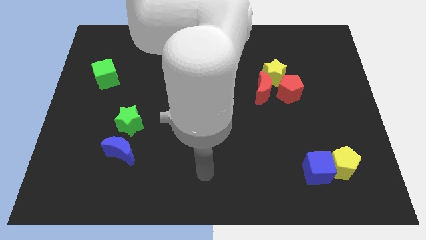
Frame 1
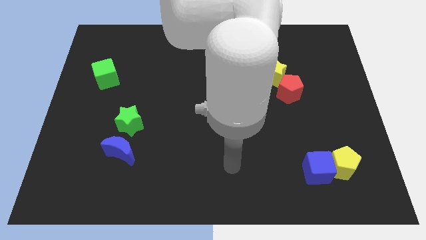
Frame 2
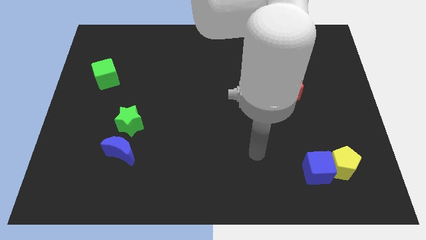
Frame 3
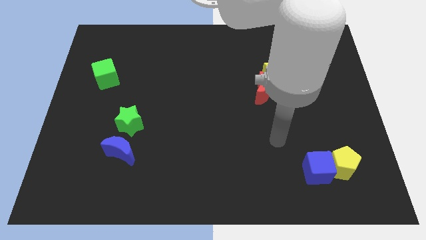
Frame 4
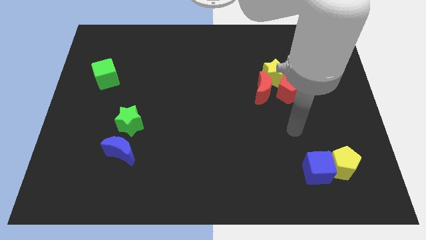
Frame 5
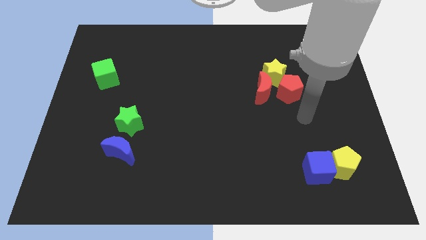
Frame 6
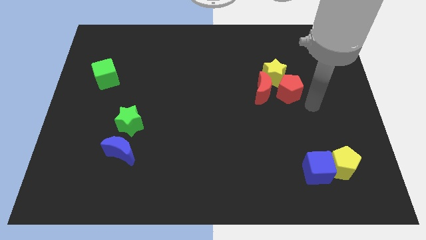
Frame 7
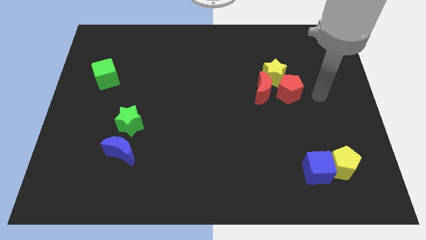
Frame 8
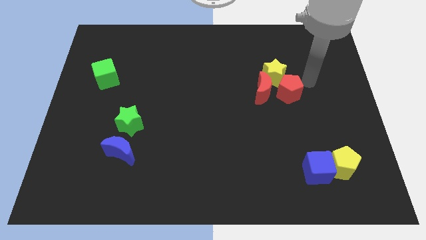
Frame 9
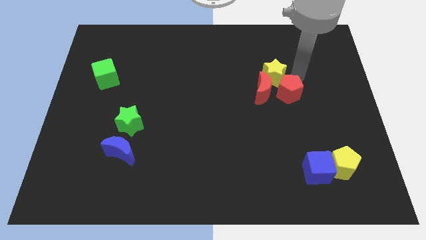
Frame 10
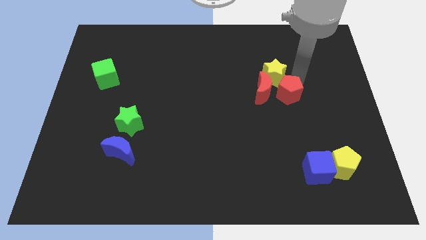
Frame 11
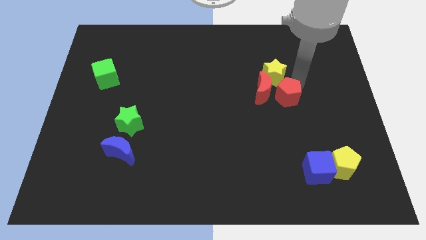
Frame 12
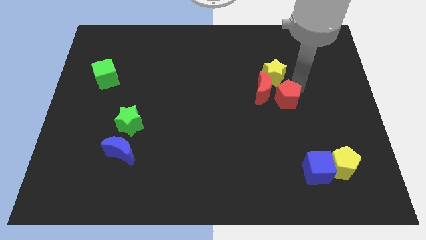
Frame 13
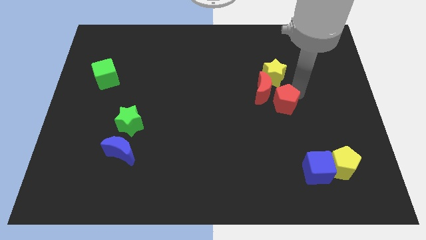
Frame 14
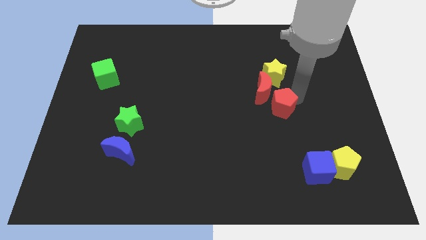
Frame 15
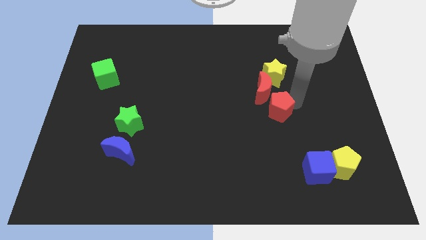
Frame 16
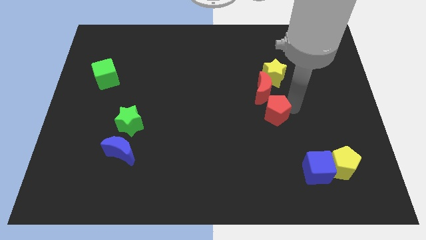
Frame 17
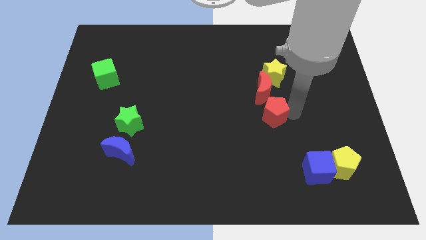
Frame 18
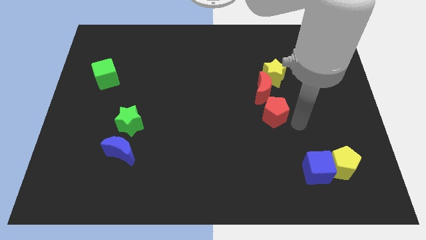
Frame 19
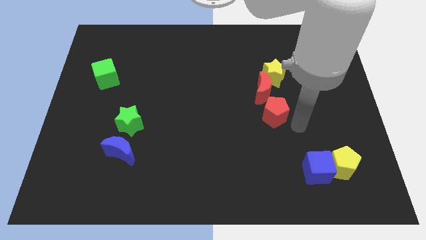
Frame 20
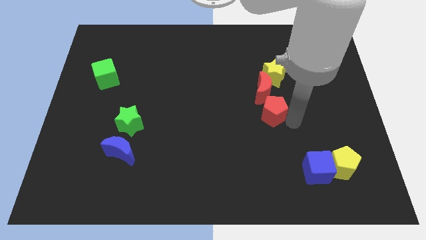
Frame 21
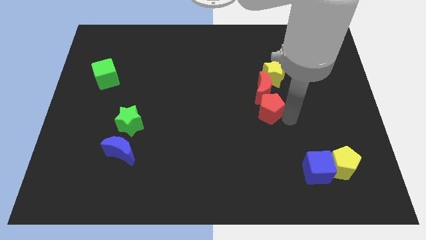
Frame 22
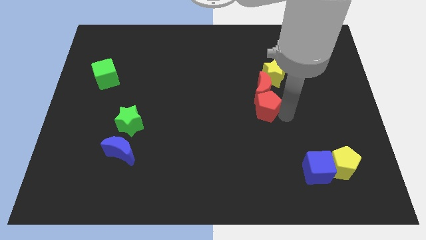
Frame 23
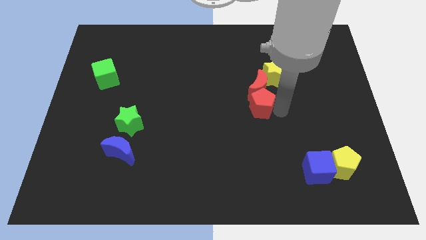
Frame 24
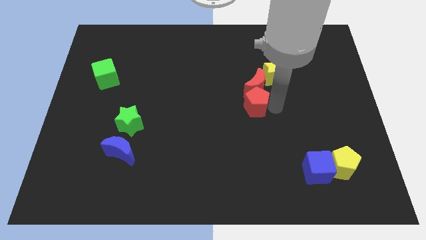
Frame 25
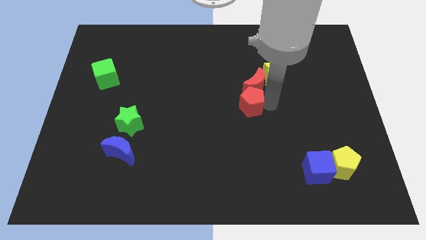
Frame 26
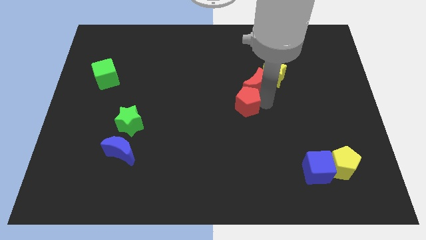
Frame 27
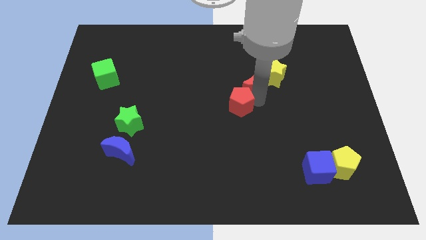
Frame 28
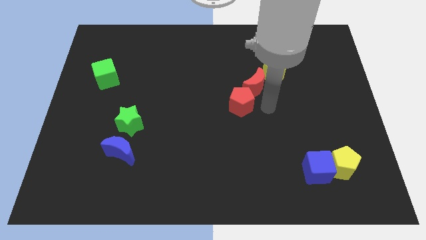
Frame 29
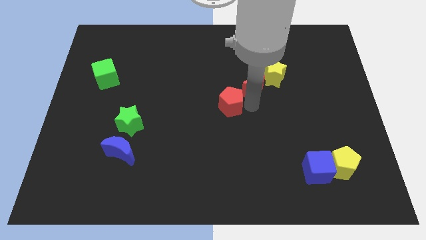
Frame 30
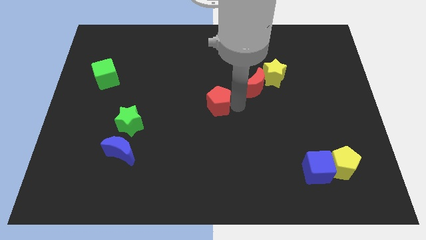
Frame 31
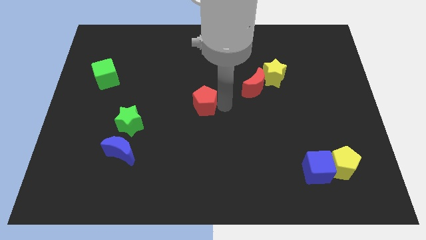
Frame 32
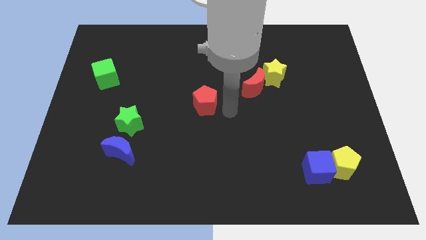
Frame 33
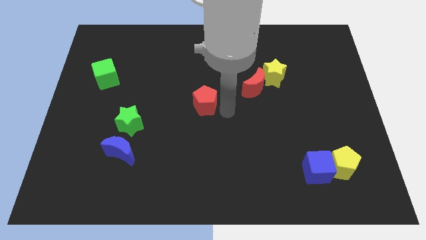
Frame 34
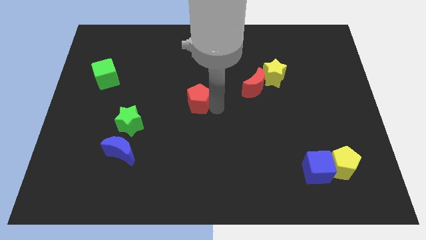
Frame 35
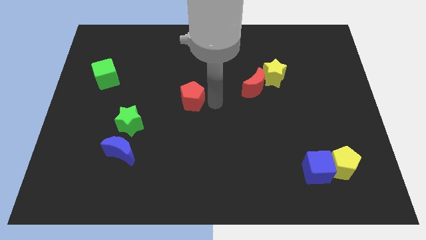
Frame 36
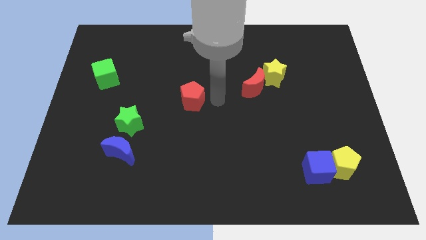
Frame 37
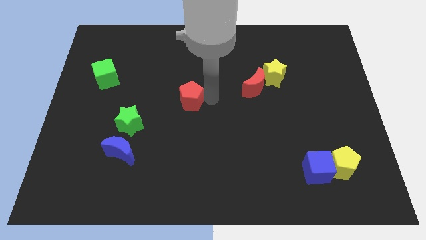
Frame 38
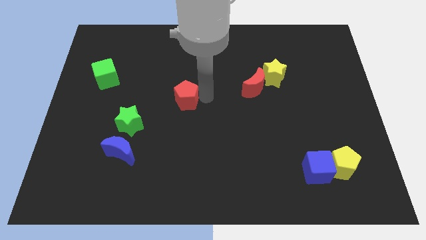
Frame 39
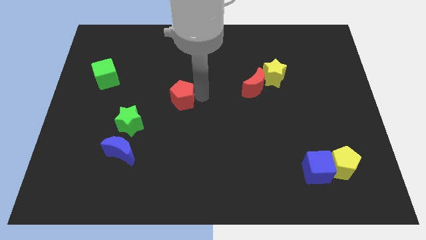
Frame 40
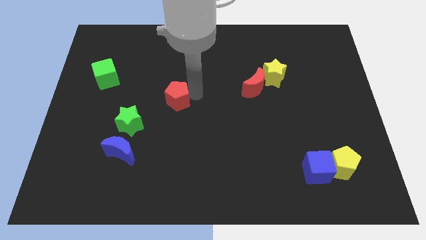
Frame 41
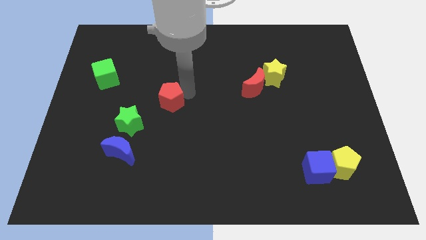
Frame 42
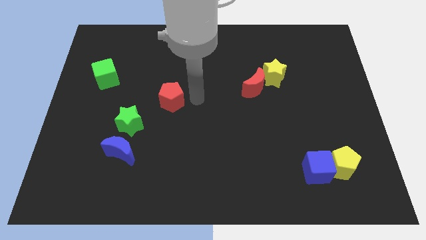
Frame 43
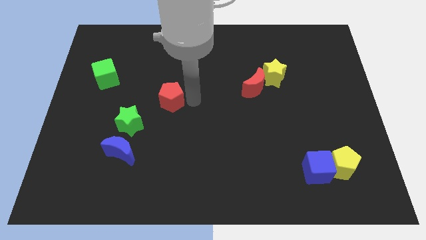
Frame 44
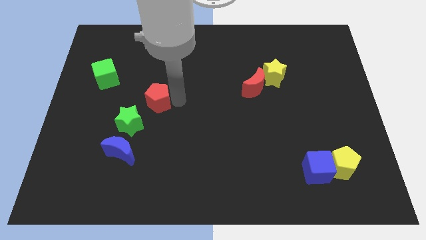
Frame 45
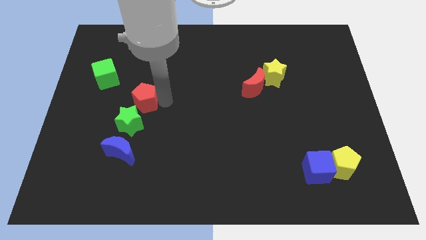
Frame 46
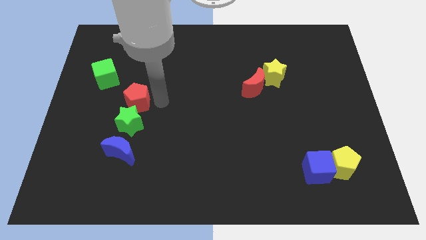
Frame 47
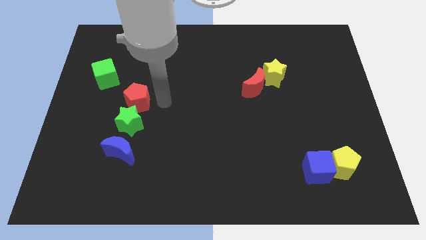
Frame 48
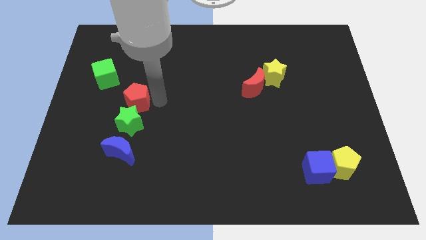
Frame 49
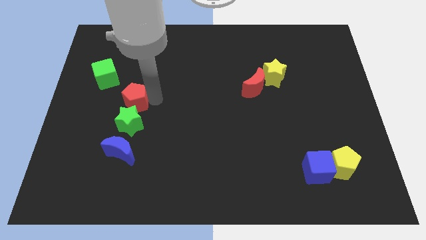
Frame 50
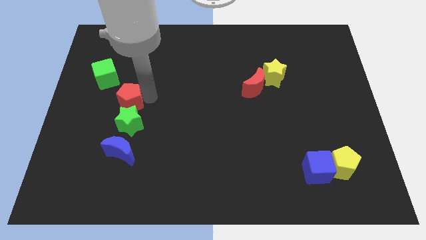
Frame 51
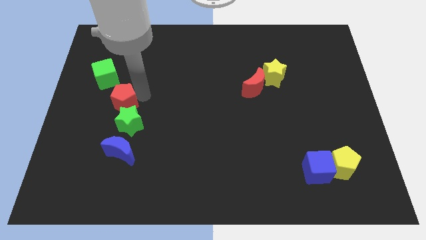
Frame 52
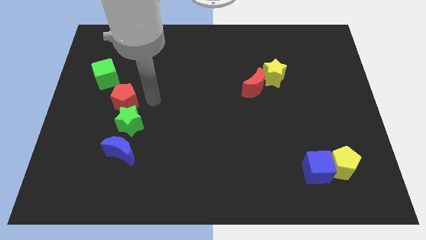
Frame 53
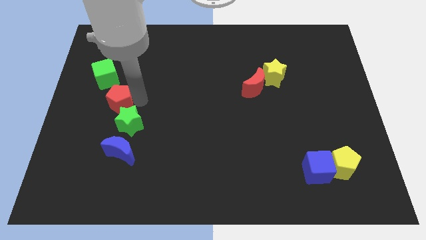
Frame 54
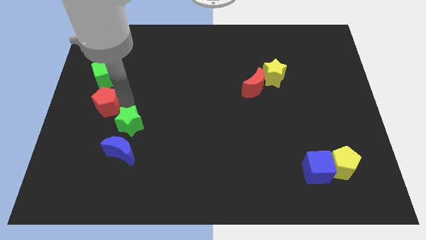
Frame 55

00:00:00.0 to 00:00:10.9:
move the red pentagon to the left side of the board

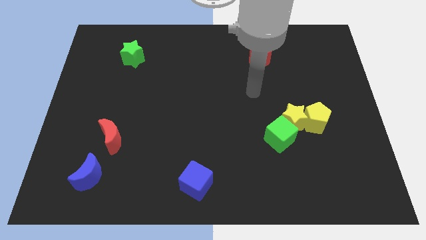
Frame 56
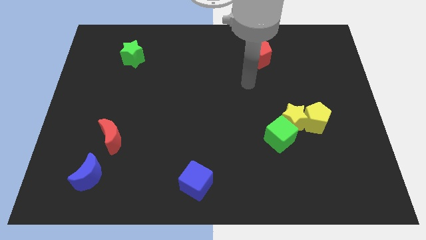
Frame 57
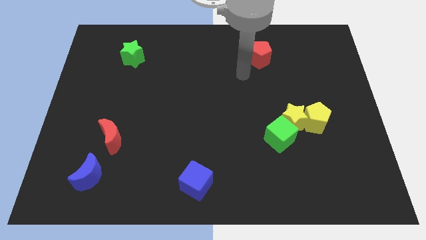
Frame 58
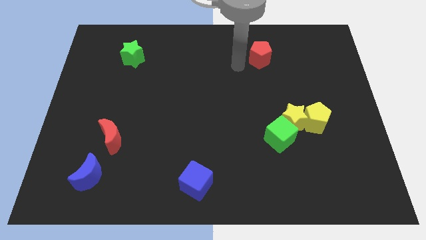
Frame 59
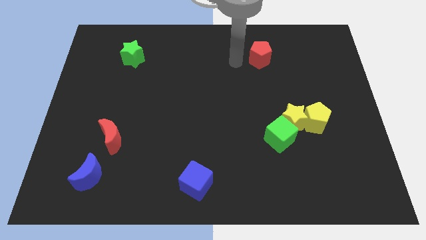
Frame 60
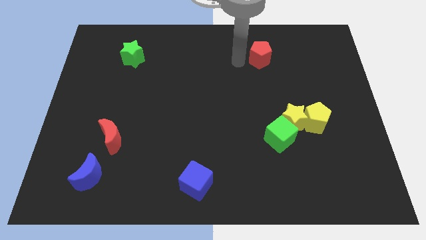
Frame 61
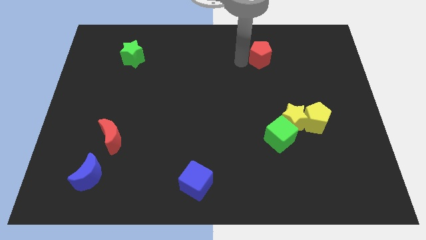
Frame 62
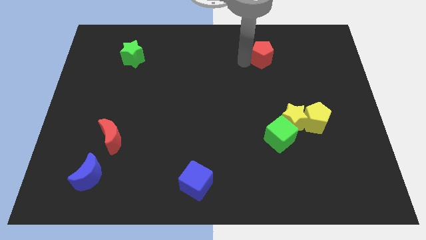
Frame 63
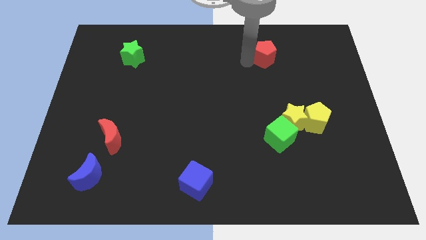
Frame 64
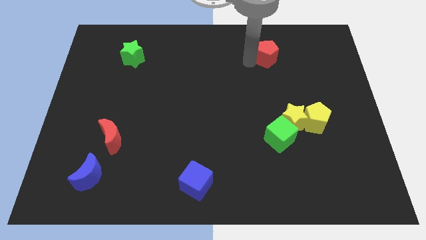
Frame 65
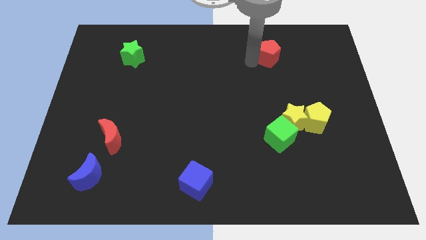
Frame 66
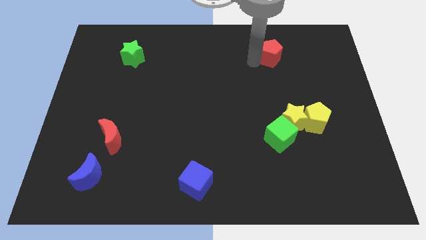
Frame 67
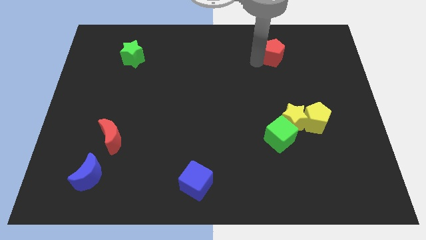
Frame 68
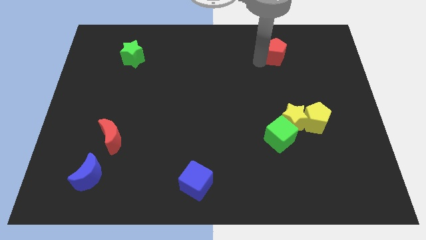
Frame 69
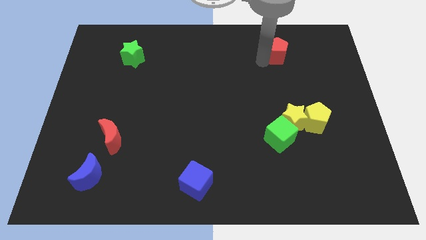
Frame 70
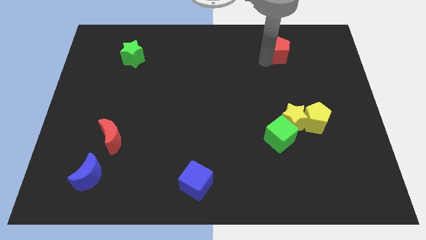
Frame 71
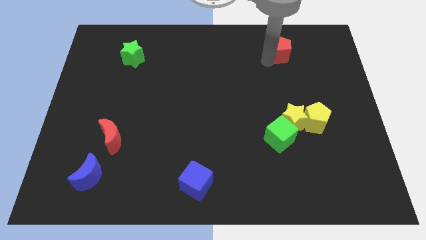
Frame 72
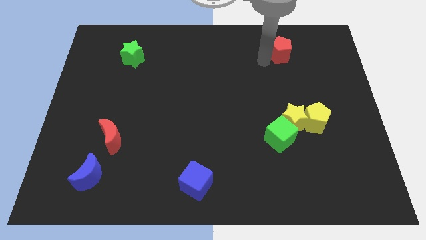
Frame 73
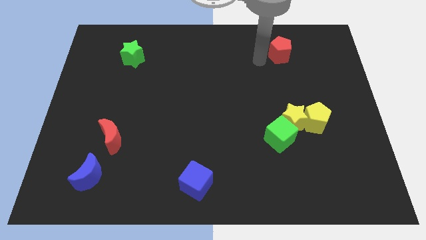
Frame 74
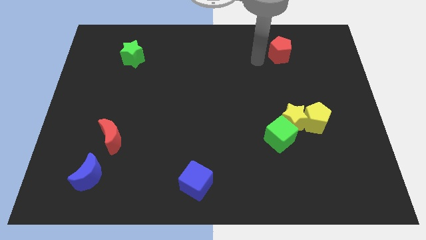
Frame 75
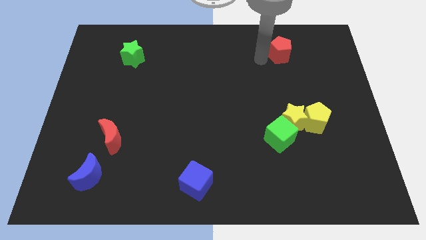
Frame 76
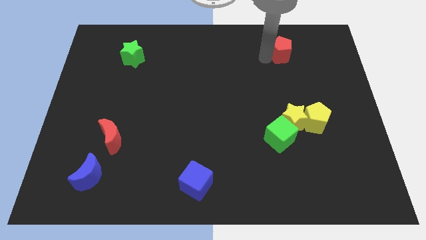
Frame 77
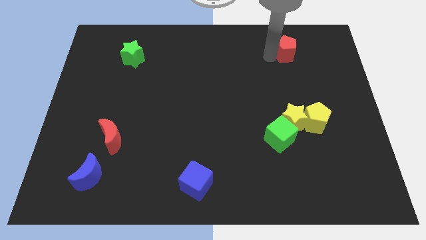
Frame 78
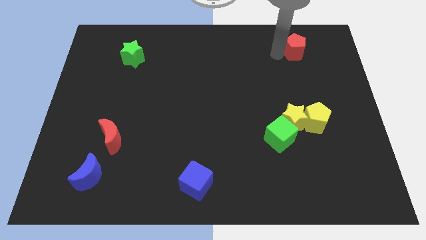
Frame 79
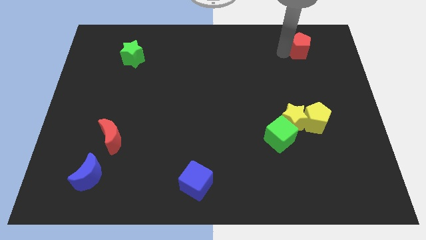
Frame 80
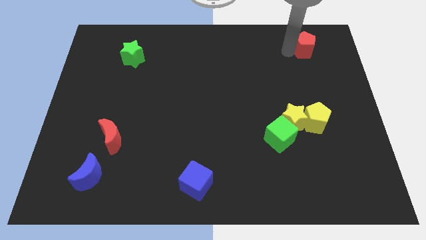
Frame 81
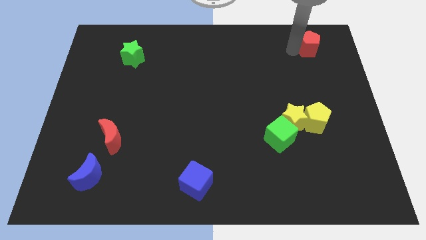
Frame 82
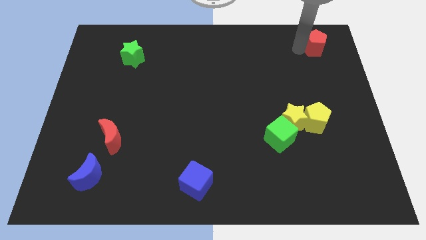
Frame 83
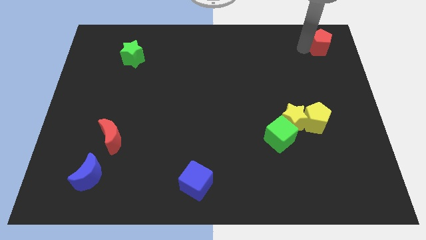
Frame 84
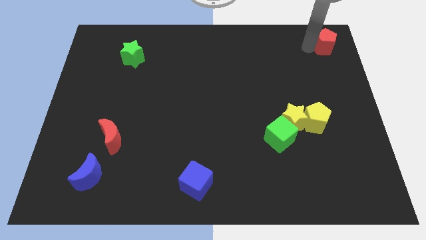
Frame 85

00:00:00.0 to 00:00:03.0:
put the red pentagon to the top right corner
